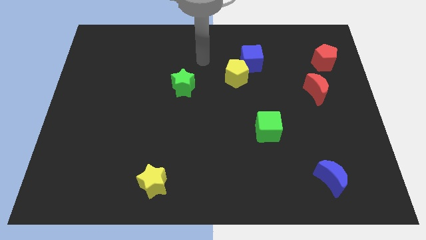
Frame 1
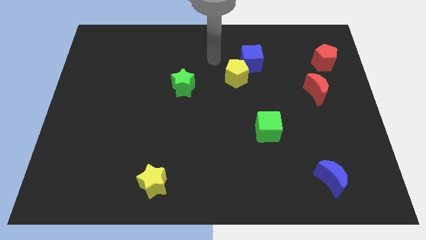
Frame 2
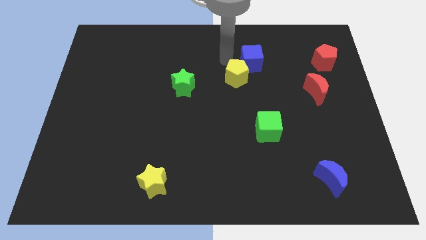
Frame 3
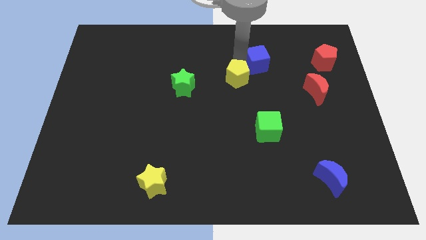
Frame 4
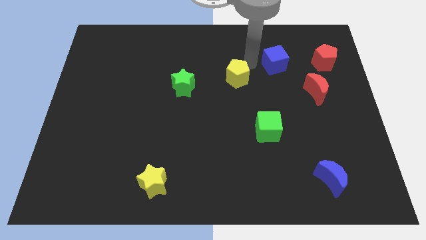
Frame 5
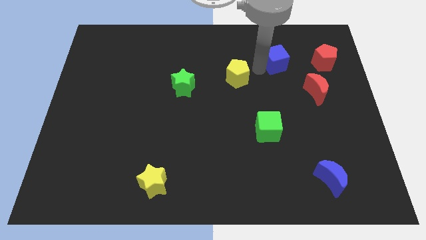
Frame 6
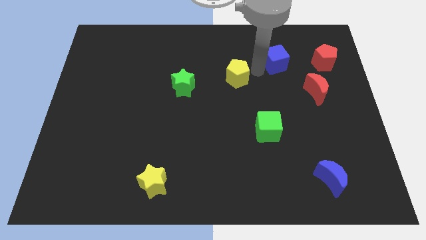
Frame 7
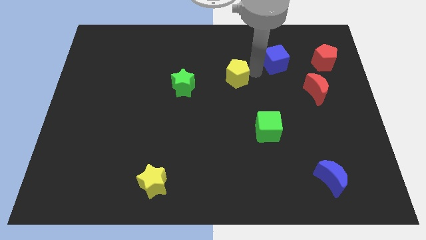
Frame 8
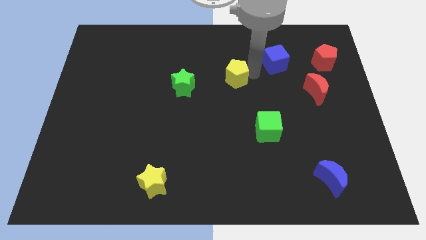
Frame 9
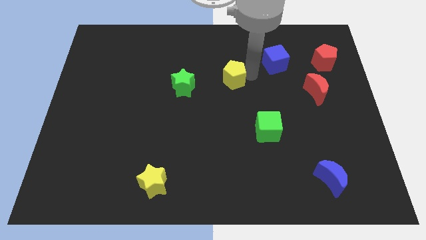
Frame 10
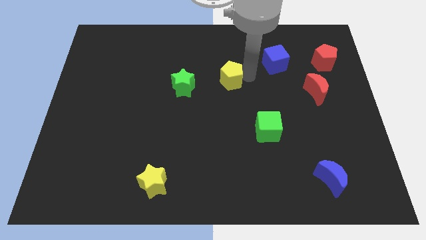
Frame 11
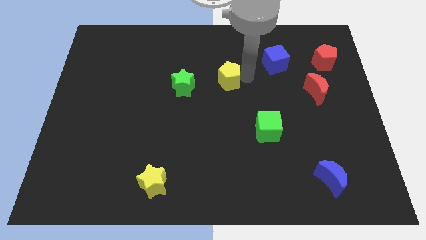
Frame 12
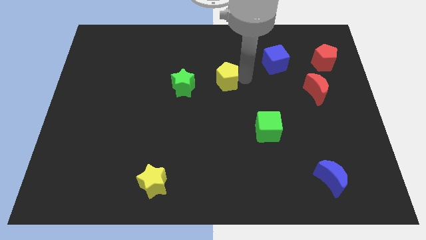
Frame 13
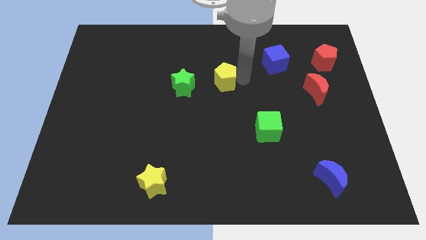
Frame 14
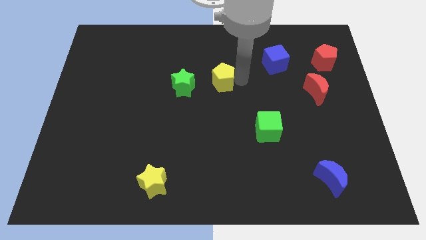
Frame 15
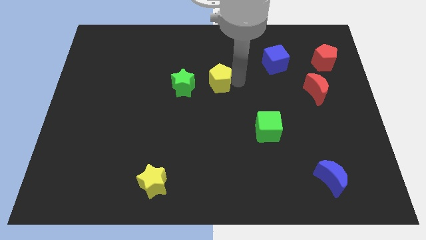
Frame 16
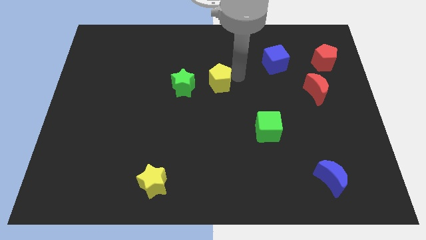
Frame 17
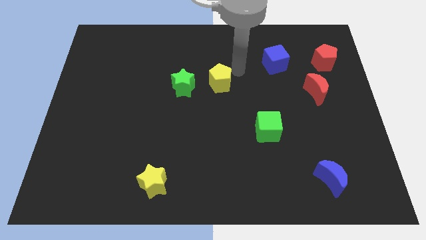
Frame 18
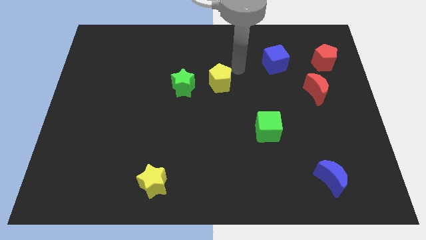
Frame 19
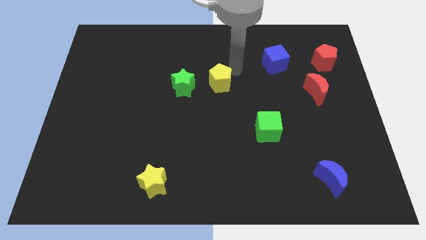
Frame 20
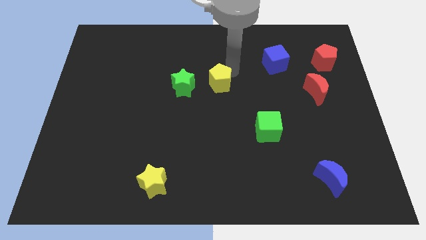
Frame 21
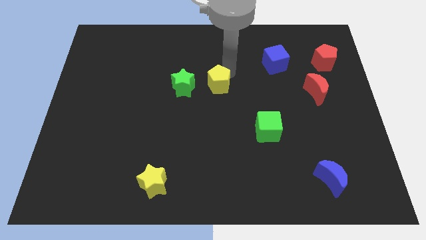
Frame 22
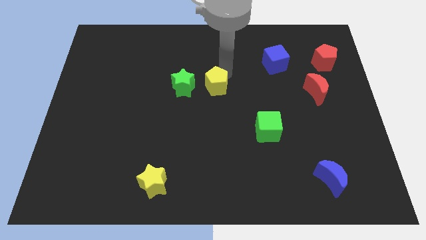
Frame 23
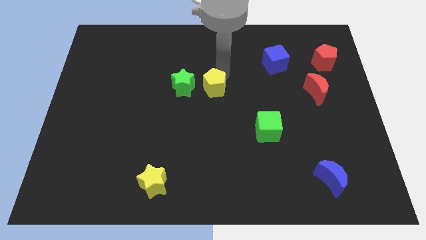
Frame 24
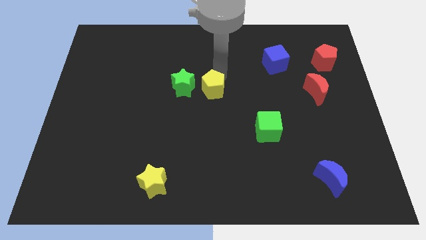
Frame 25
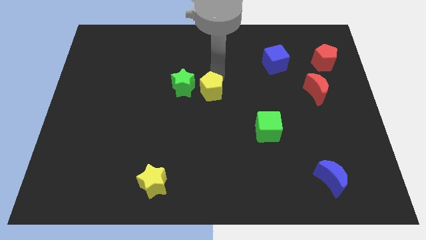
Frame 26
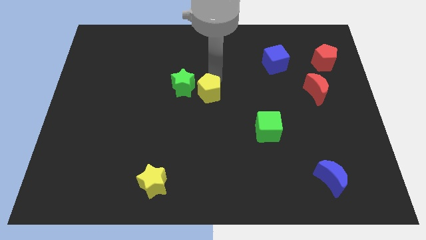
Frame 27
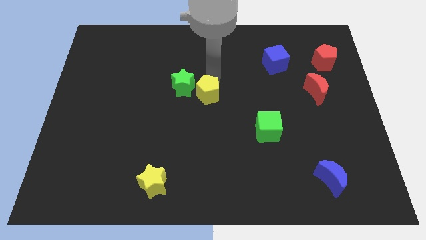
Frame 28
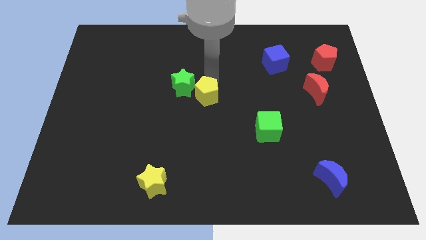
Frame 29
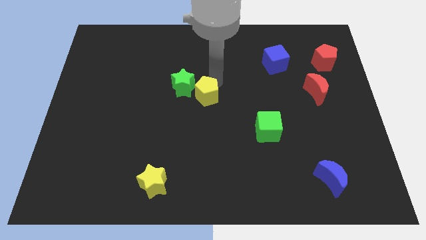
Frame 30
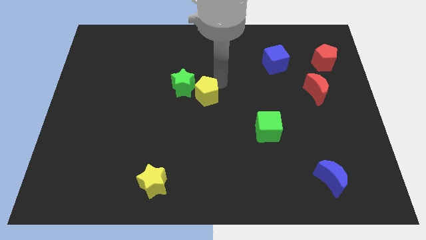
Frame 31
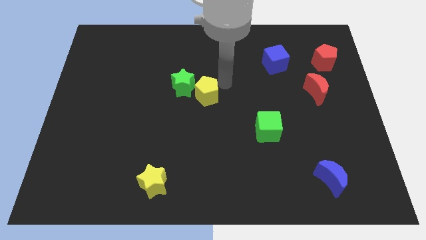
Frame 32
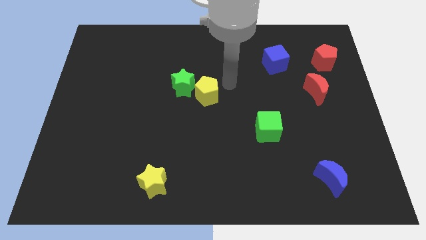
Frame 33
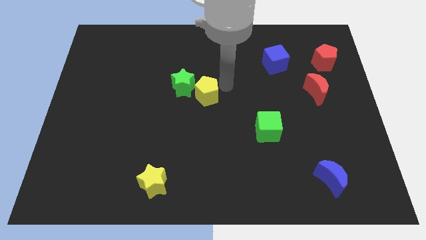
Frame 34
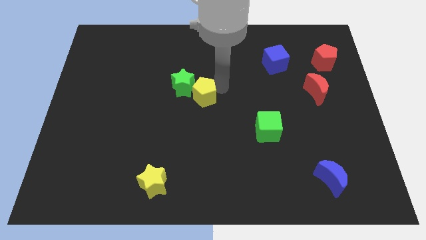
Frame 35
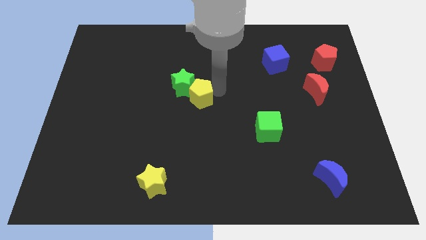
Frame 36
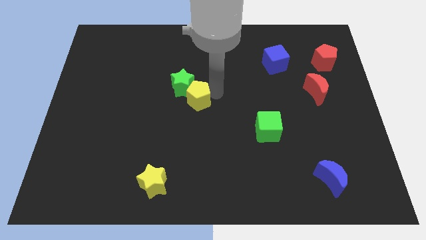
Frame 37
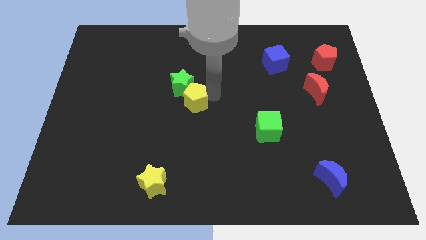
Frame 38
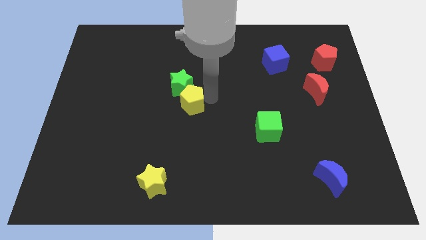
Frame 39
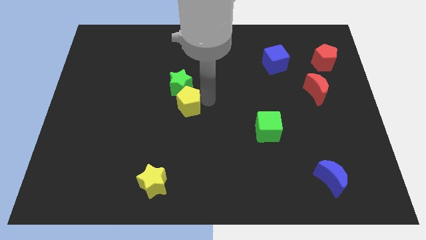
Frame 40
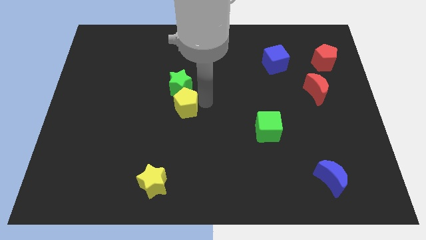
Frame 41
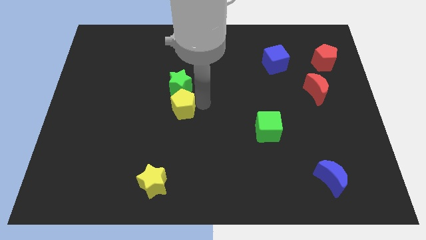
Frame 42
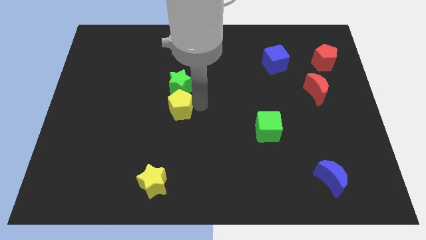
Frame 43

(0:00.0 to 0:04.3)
move the yellow pentagon to the bottom left side of the green star

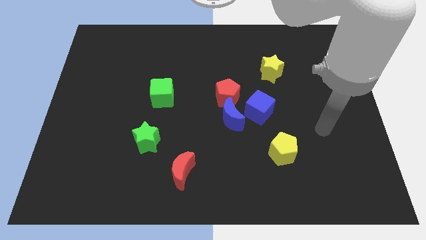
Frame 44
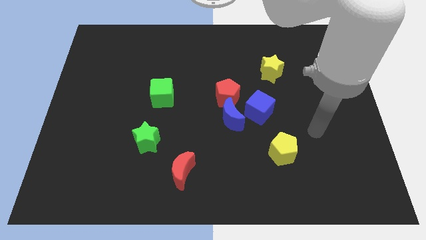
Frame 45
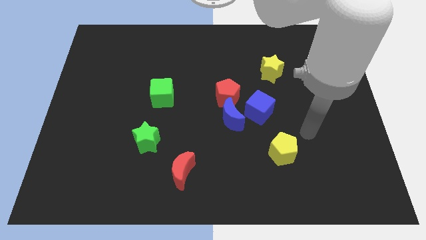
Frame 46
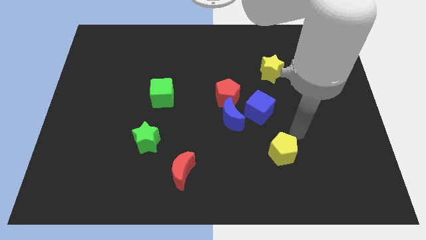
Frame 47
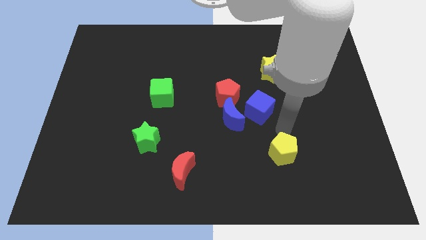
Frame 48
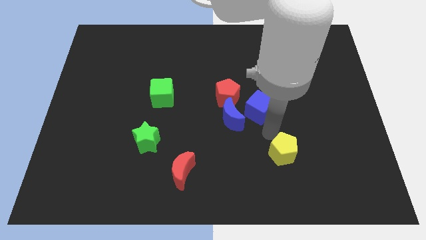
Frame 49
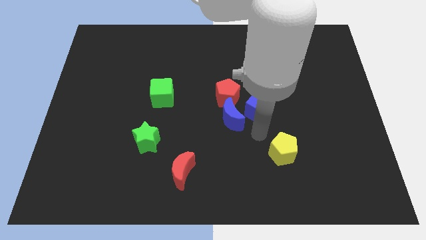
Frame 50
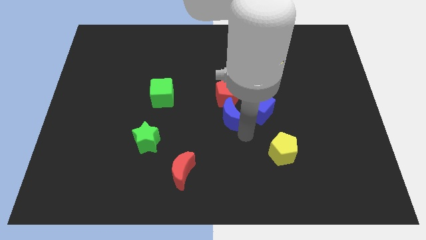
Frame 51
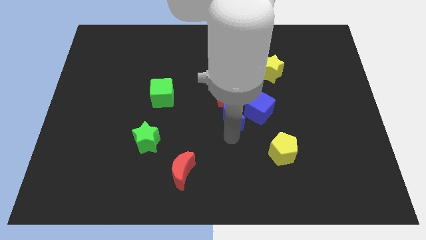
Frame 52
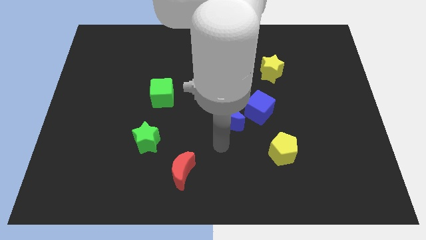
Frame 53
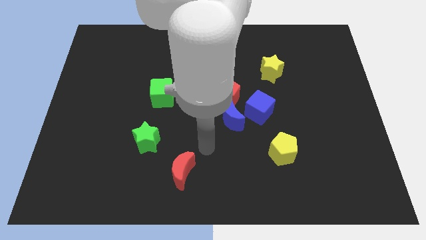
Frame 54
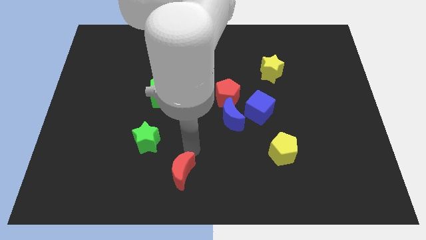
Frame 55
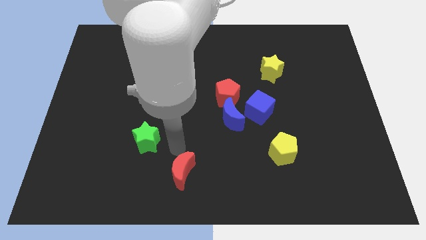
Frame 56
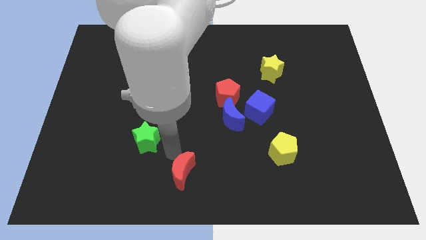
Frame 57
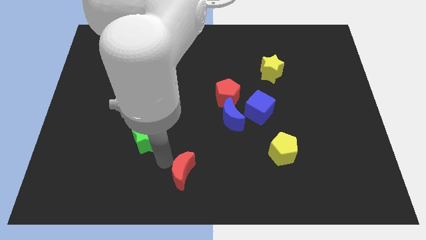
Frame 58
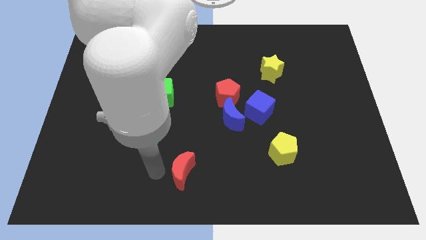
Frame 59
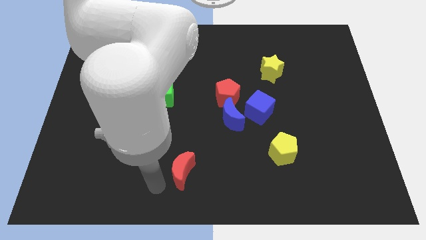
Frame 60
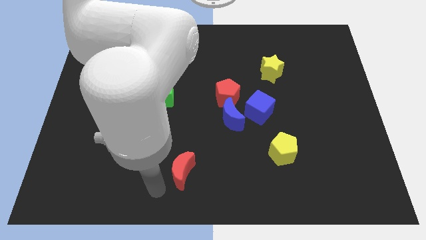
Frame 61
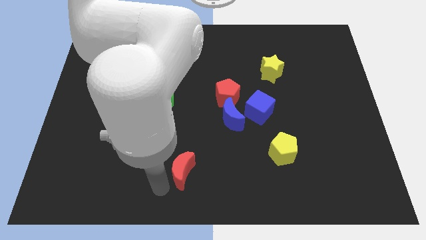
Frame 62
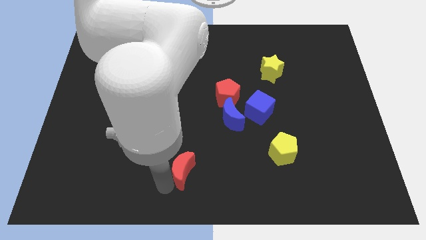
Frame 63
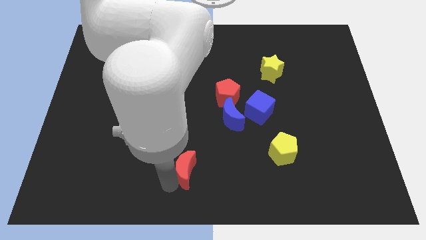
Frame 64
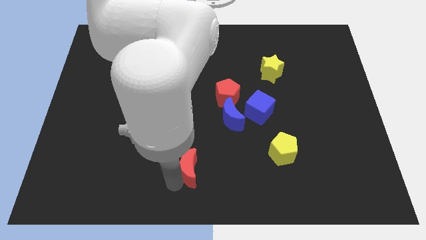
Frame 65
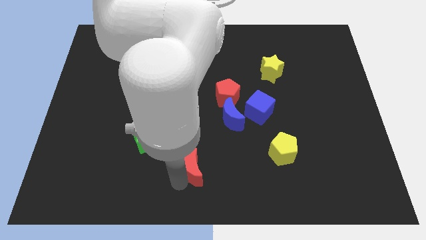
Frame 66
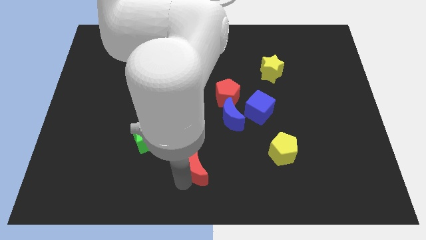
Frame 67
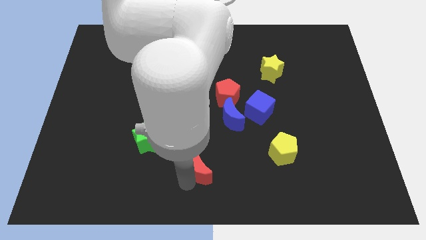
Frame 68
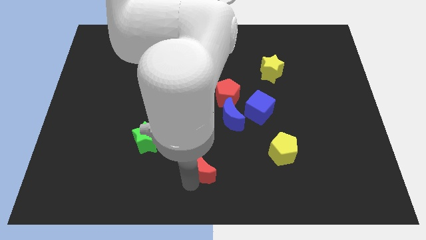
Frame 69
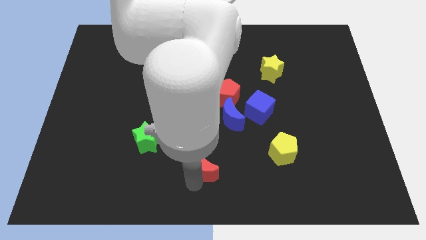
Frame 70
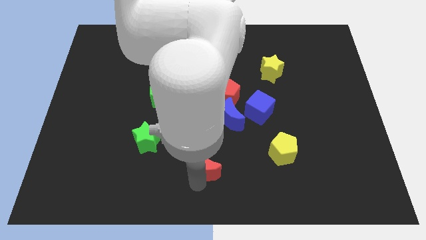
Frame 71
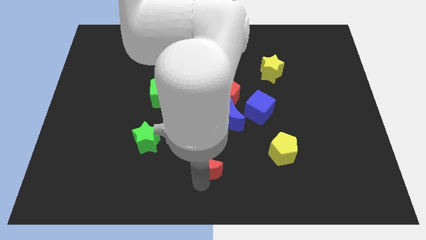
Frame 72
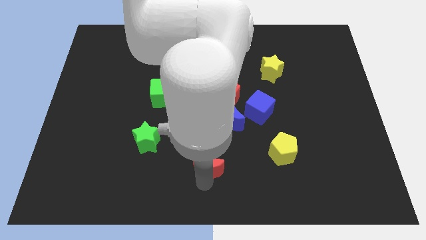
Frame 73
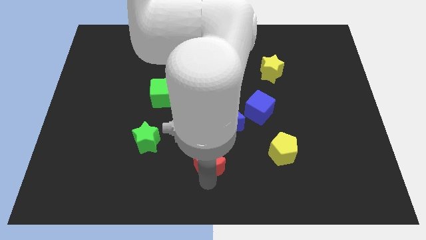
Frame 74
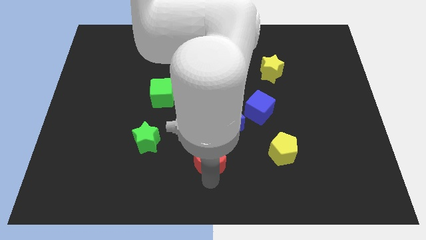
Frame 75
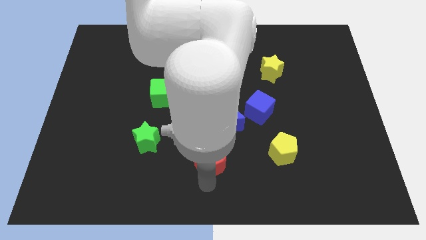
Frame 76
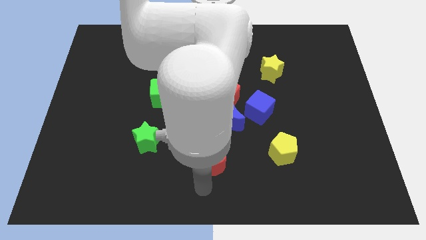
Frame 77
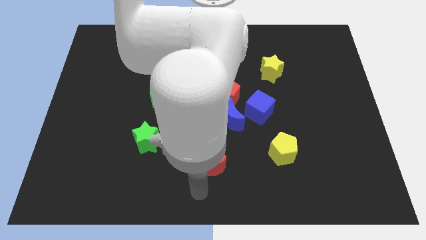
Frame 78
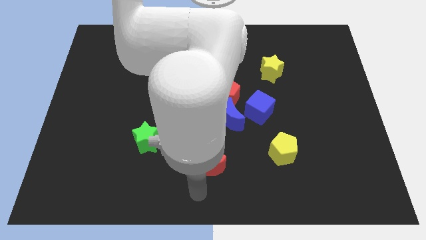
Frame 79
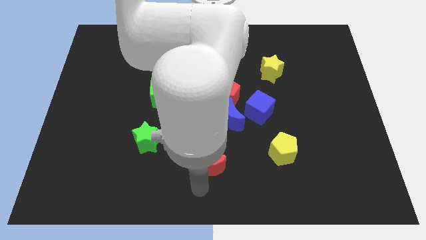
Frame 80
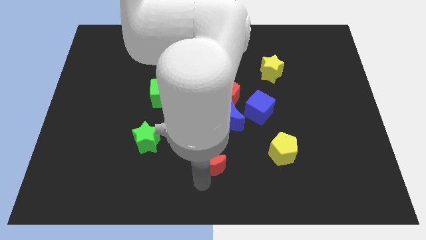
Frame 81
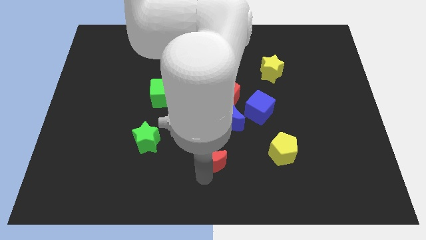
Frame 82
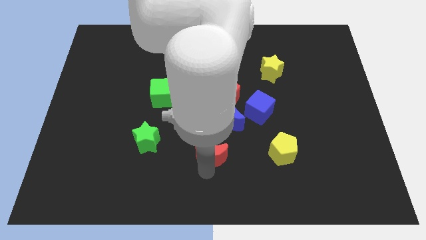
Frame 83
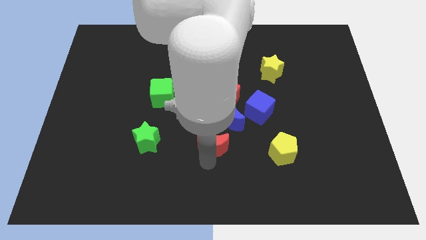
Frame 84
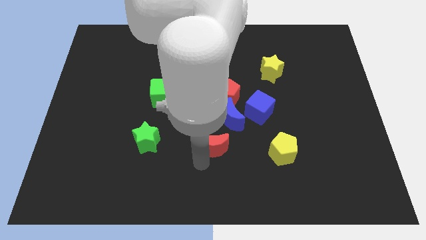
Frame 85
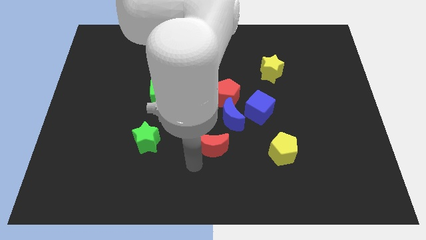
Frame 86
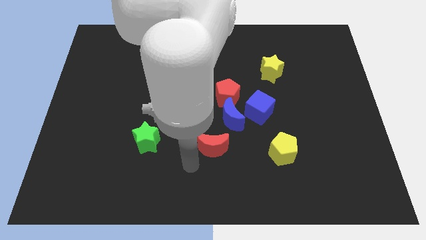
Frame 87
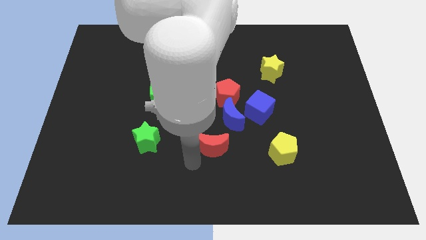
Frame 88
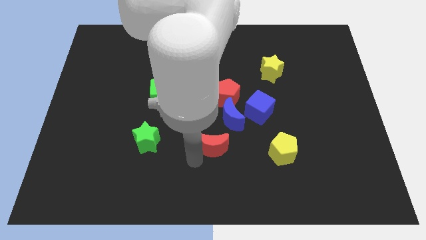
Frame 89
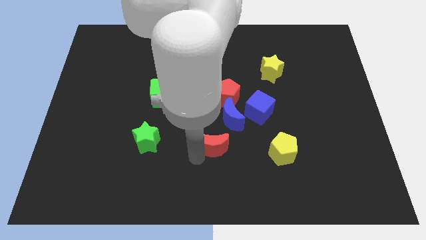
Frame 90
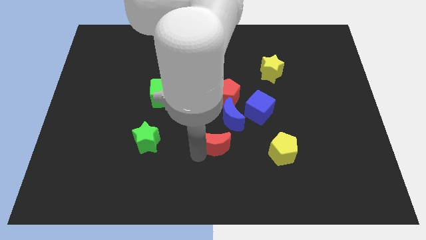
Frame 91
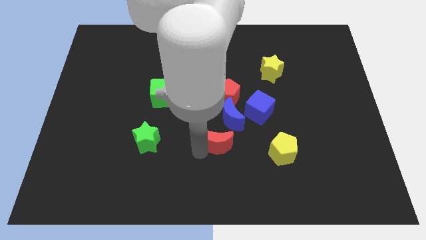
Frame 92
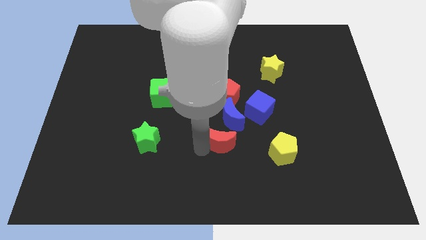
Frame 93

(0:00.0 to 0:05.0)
put the red moon diagonally down and to the left of the blue cube
